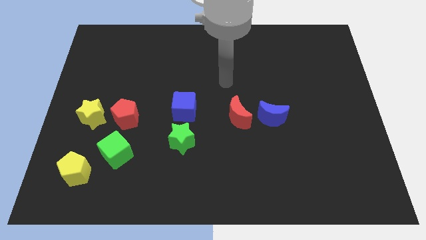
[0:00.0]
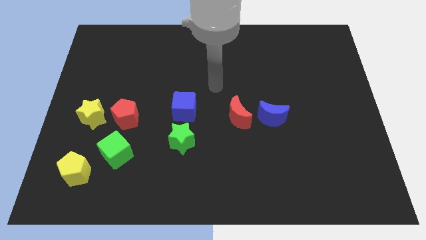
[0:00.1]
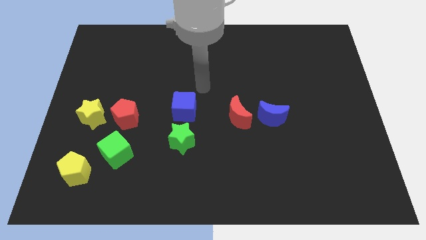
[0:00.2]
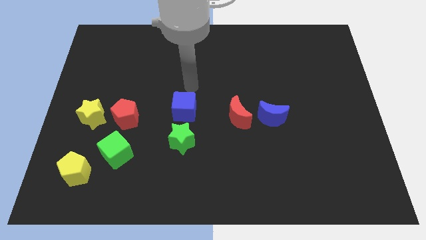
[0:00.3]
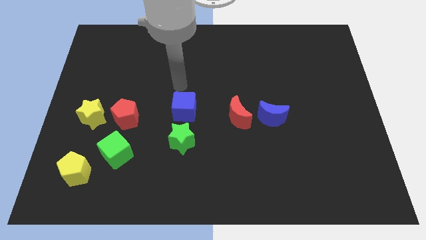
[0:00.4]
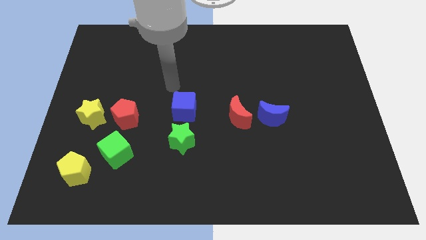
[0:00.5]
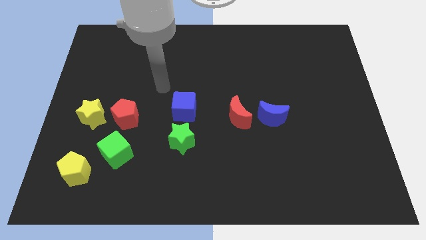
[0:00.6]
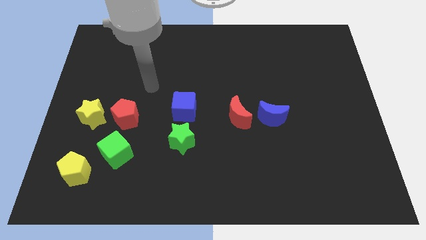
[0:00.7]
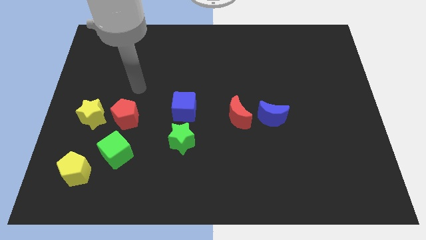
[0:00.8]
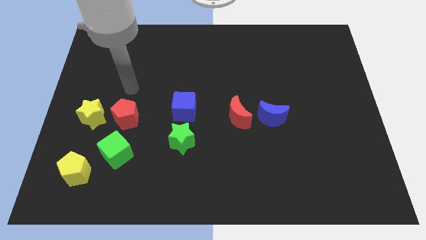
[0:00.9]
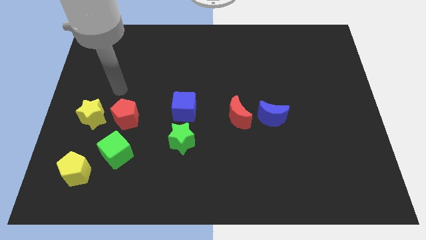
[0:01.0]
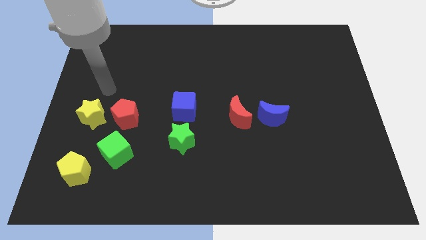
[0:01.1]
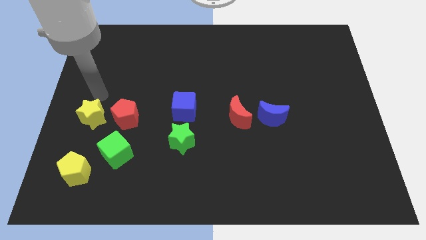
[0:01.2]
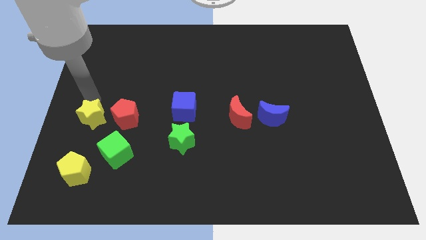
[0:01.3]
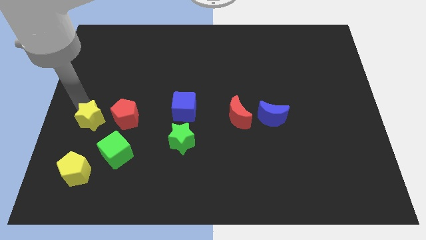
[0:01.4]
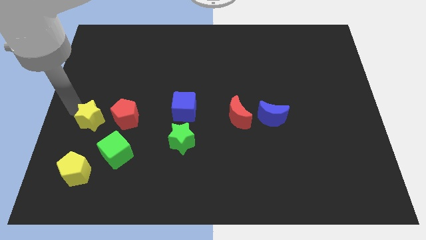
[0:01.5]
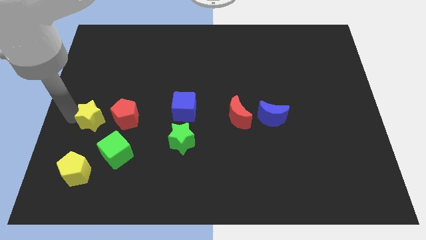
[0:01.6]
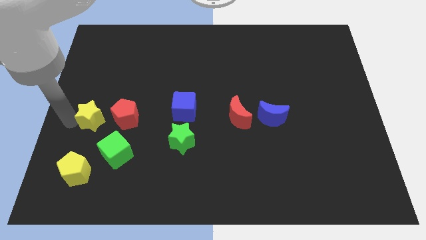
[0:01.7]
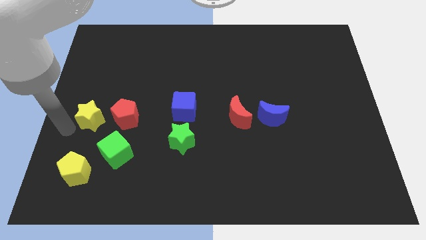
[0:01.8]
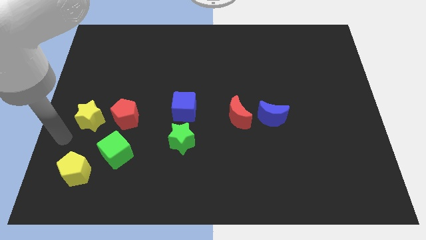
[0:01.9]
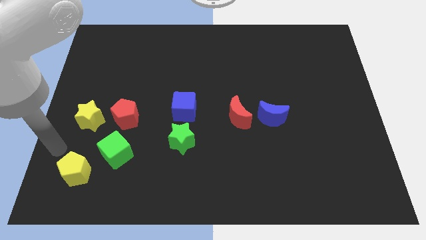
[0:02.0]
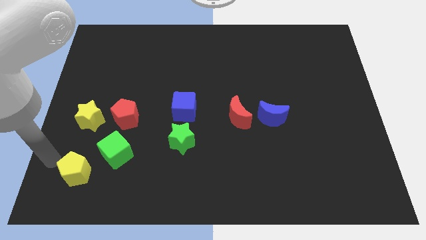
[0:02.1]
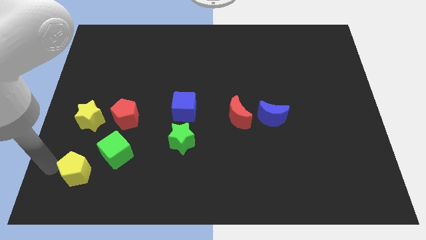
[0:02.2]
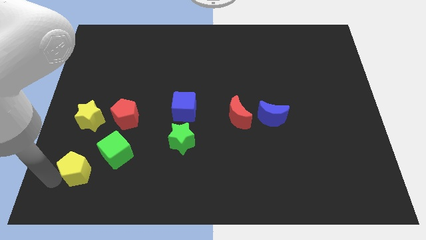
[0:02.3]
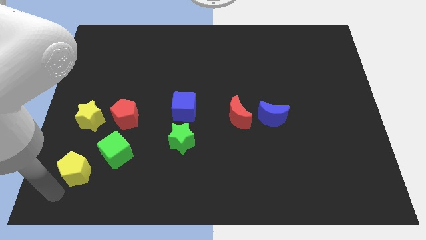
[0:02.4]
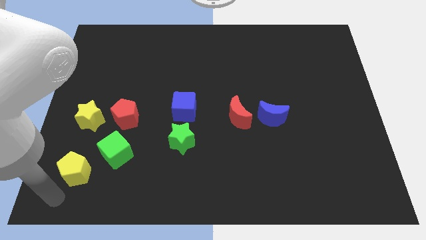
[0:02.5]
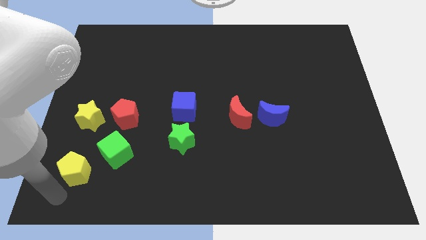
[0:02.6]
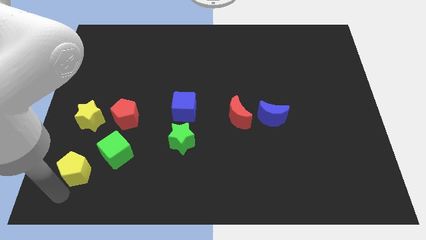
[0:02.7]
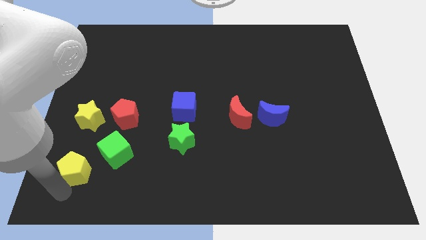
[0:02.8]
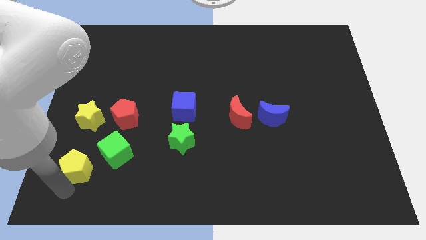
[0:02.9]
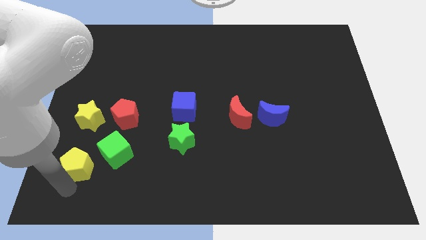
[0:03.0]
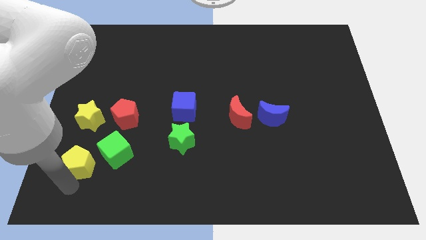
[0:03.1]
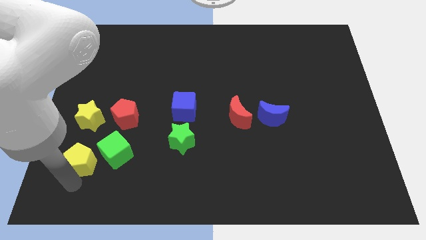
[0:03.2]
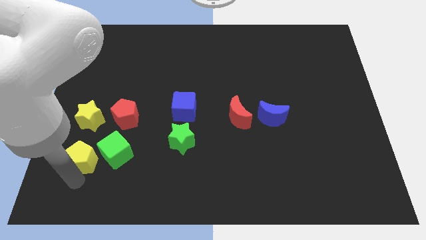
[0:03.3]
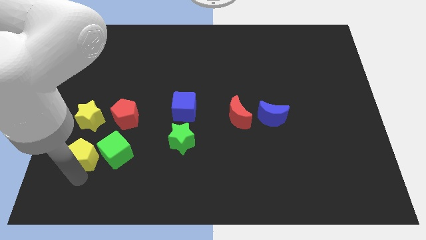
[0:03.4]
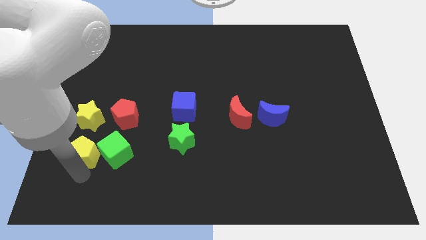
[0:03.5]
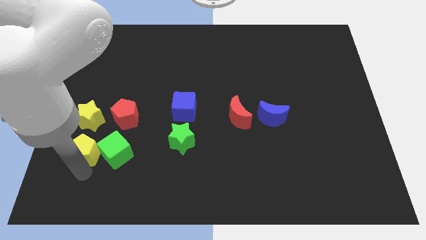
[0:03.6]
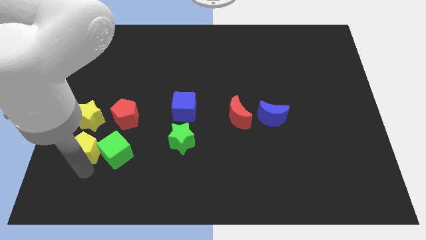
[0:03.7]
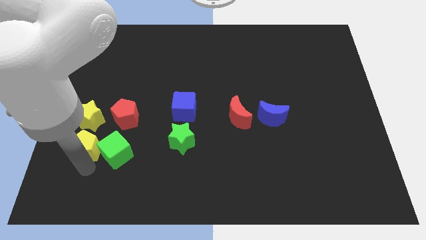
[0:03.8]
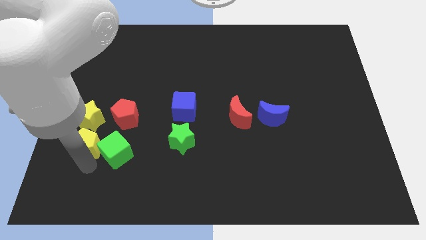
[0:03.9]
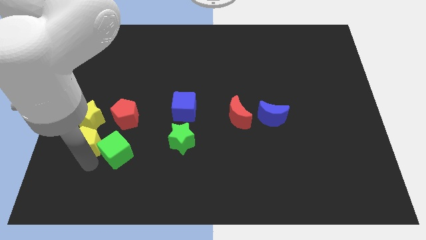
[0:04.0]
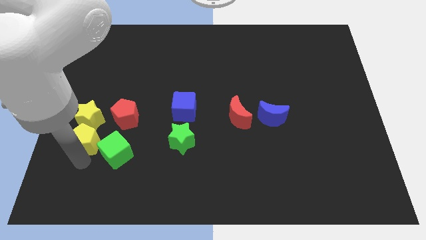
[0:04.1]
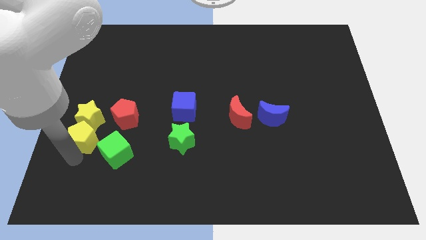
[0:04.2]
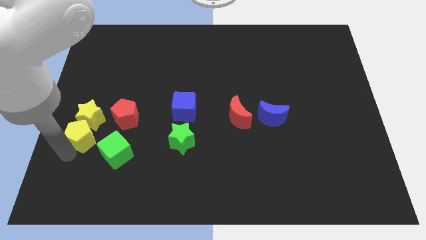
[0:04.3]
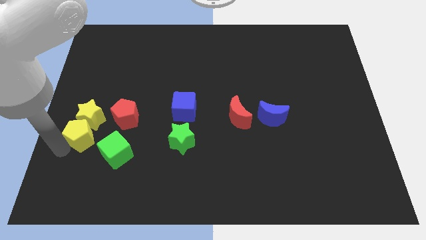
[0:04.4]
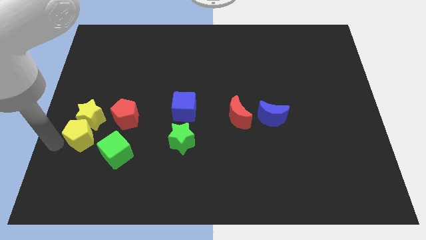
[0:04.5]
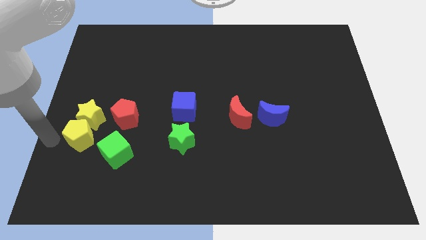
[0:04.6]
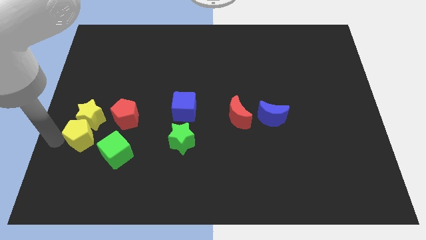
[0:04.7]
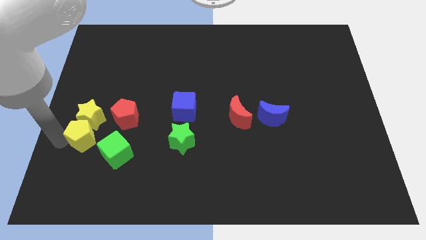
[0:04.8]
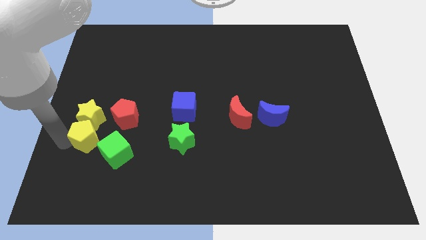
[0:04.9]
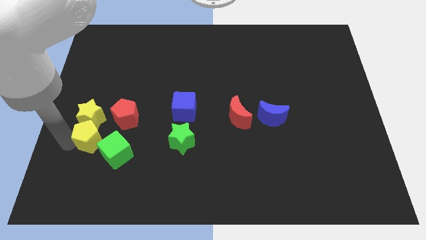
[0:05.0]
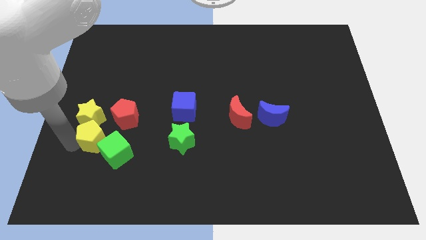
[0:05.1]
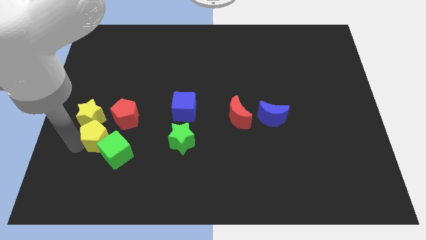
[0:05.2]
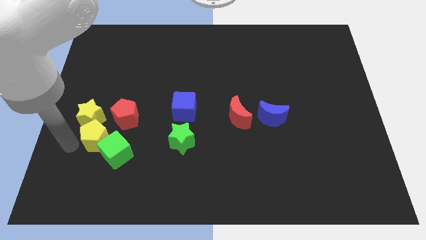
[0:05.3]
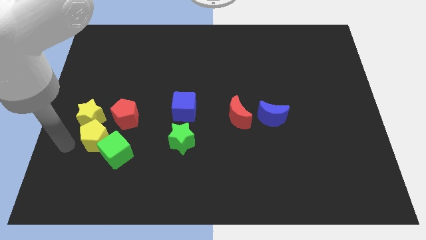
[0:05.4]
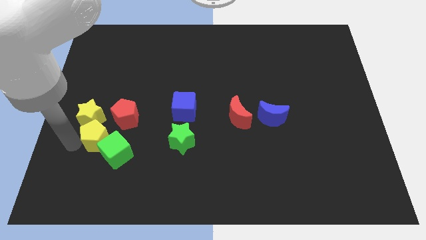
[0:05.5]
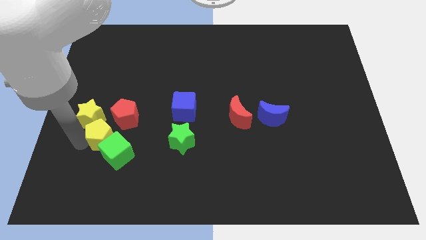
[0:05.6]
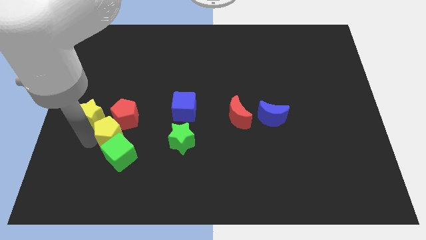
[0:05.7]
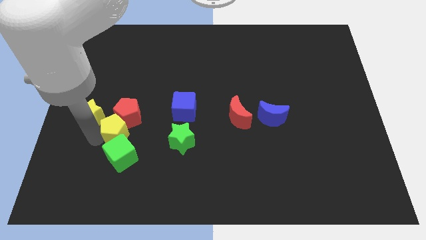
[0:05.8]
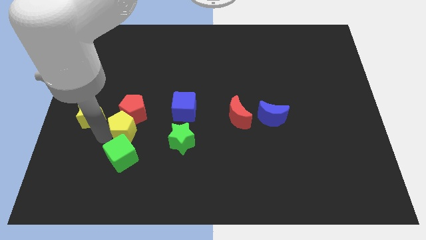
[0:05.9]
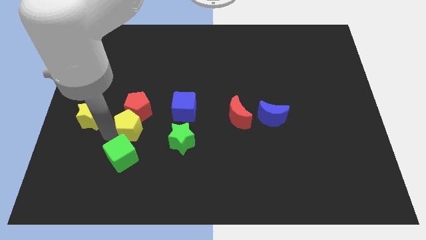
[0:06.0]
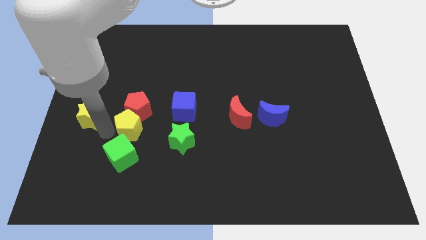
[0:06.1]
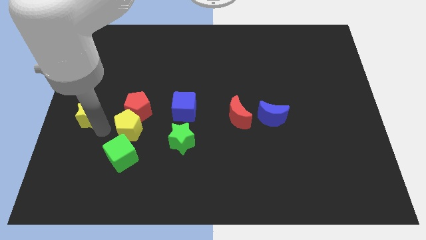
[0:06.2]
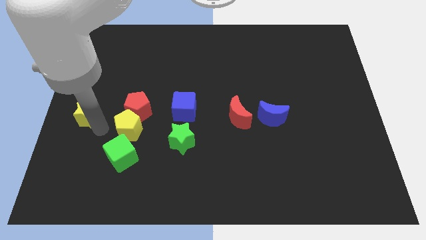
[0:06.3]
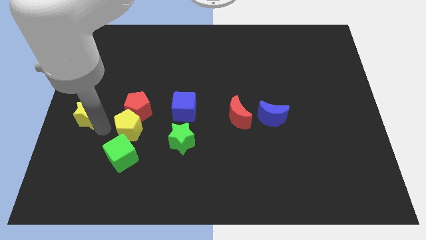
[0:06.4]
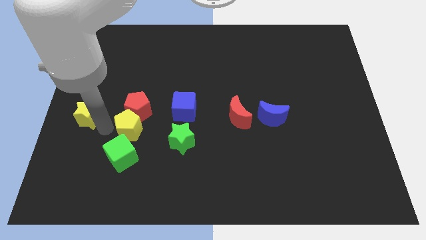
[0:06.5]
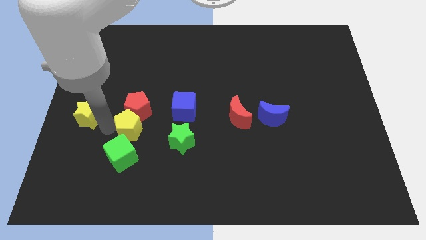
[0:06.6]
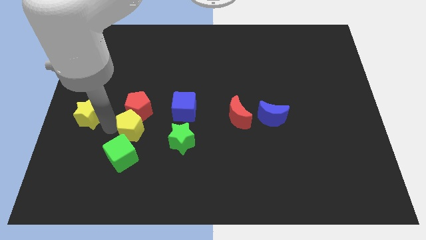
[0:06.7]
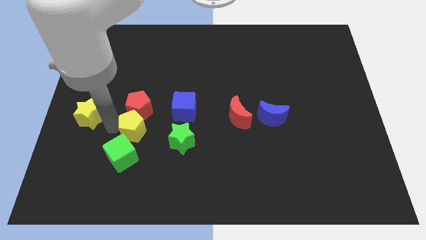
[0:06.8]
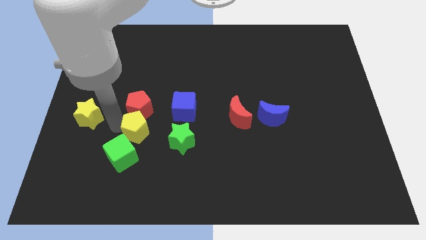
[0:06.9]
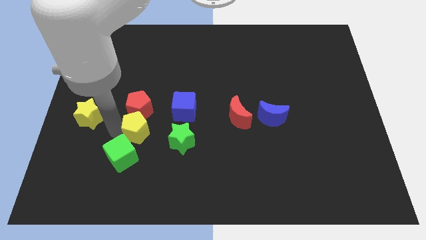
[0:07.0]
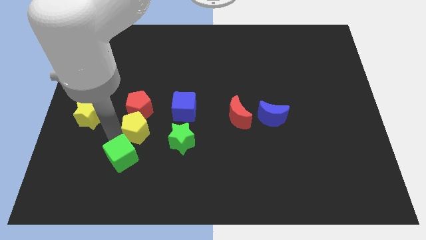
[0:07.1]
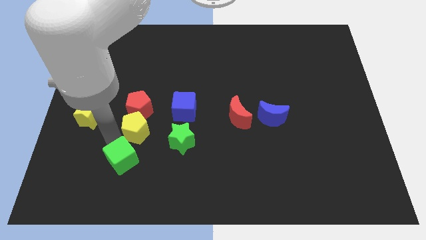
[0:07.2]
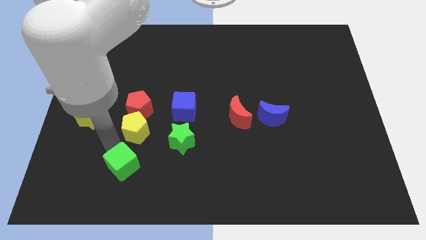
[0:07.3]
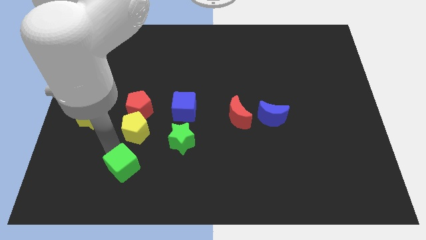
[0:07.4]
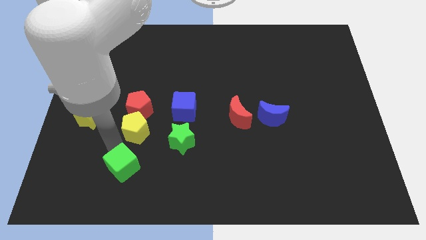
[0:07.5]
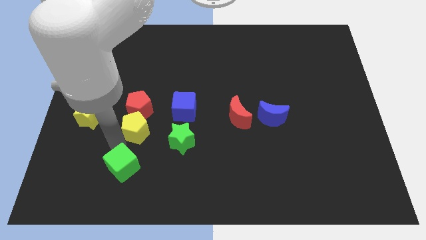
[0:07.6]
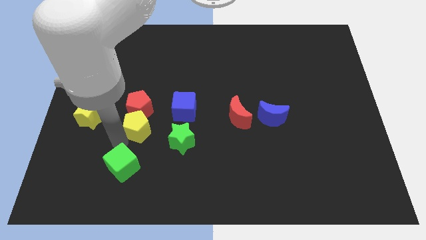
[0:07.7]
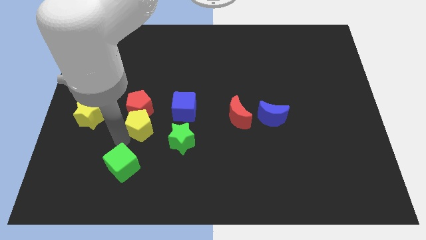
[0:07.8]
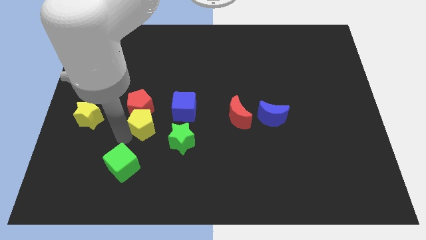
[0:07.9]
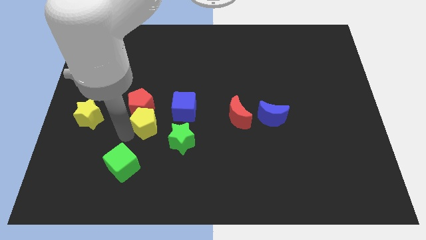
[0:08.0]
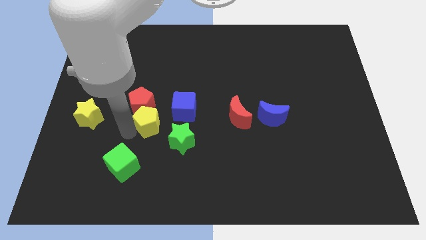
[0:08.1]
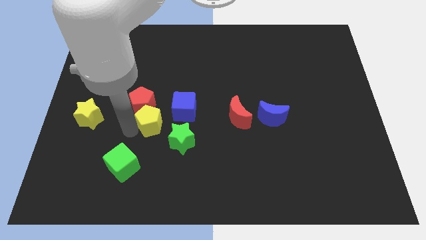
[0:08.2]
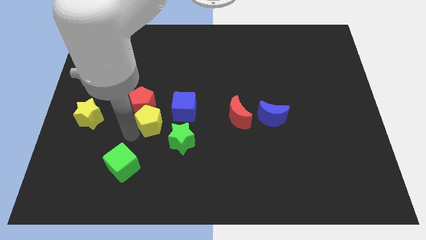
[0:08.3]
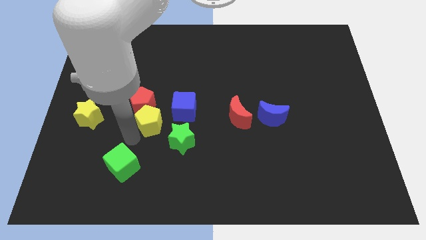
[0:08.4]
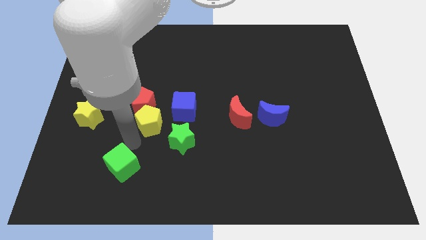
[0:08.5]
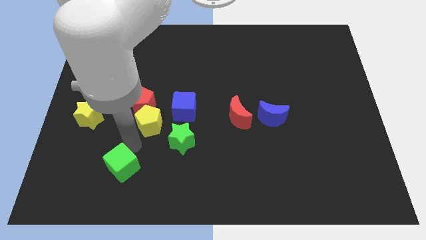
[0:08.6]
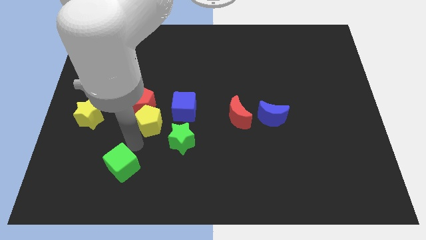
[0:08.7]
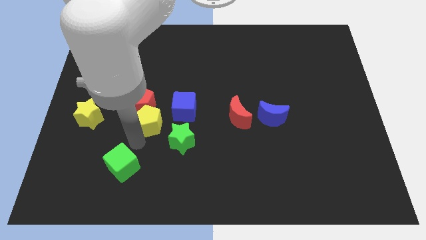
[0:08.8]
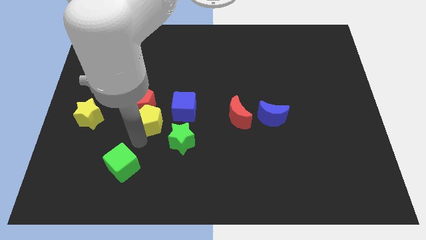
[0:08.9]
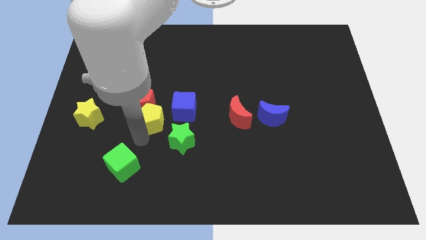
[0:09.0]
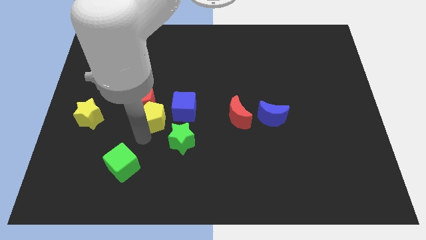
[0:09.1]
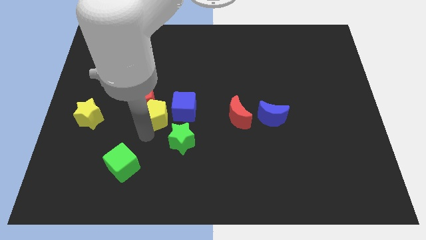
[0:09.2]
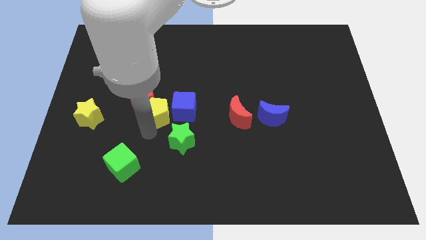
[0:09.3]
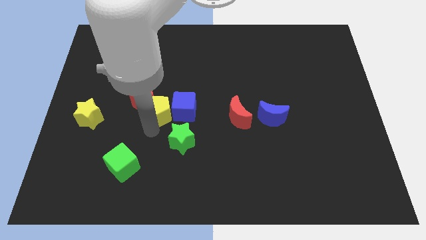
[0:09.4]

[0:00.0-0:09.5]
push the yellow pentagon to the top left of the blue cube
